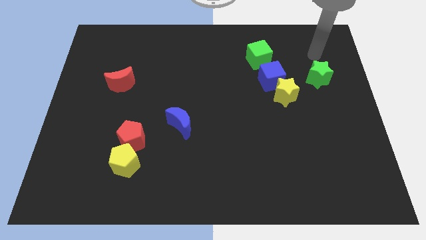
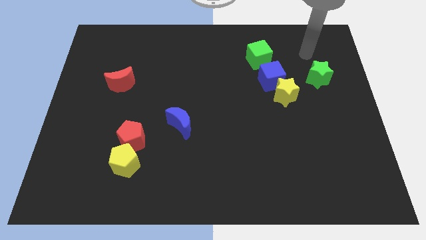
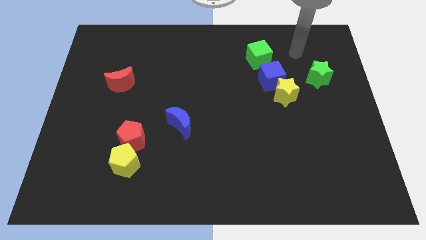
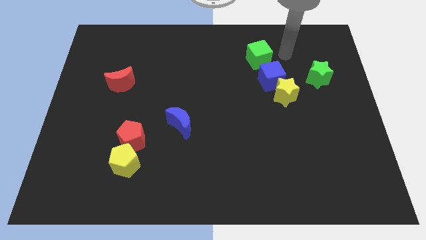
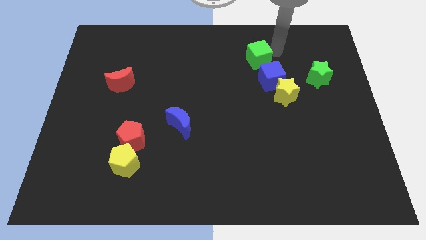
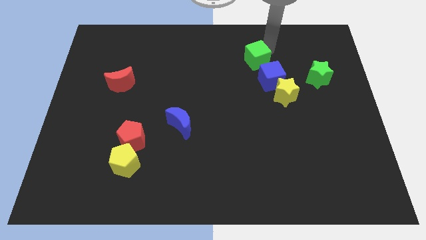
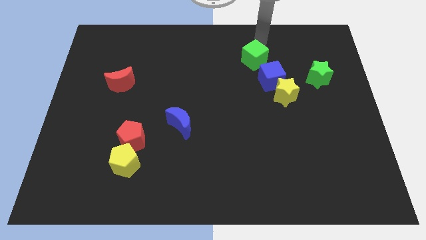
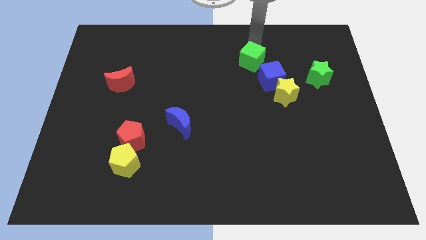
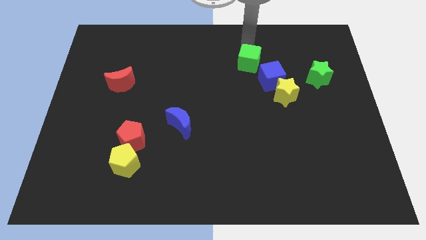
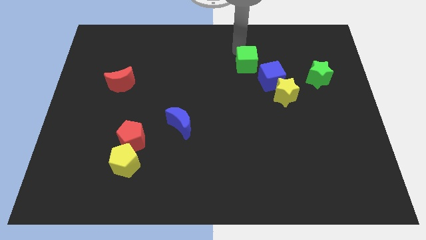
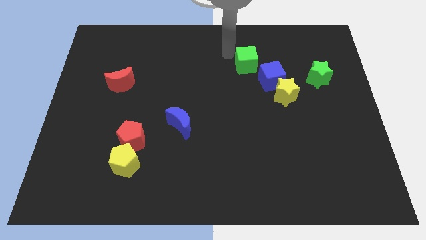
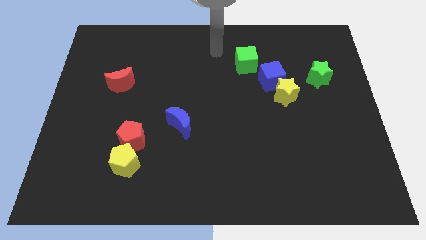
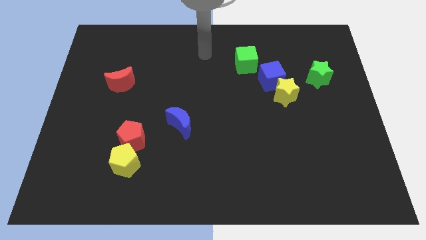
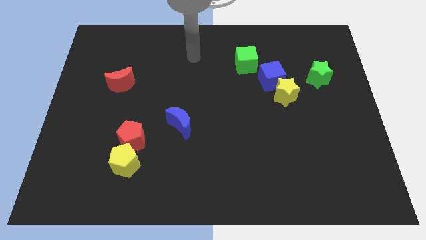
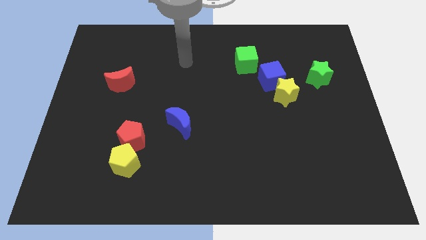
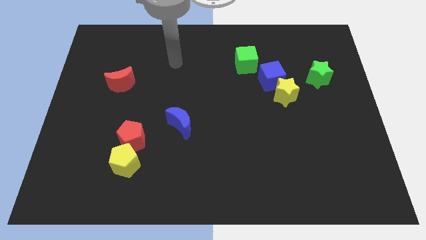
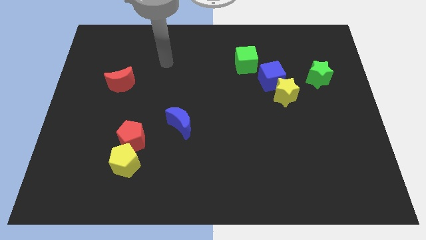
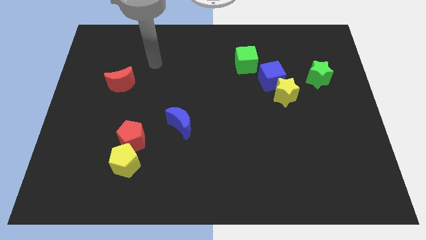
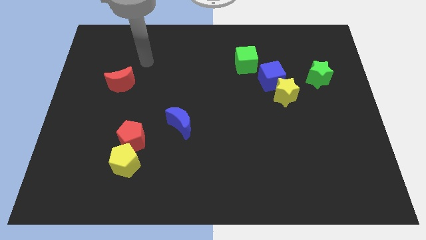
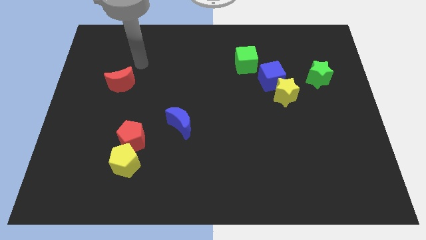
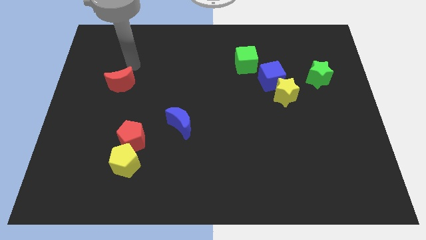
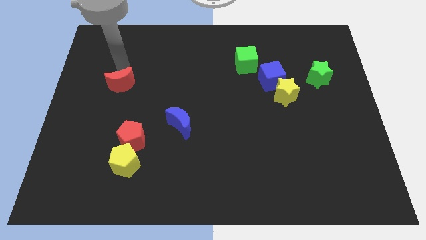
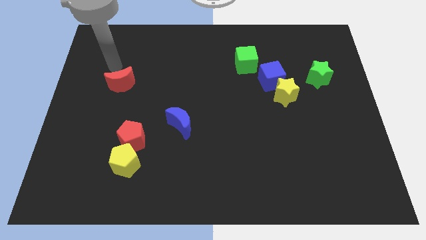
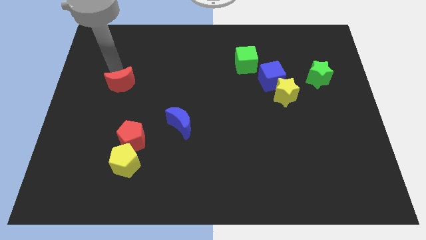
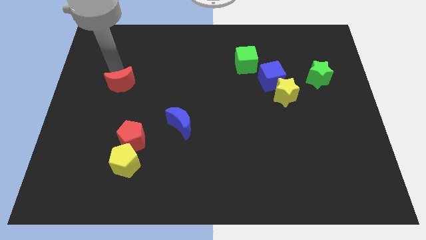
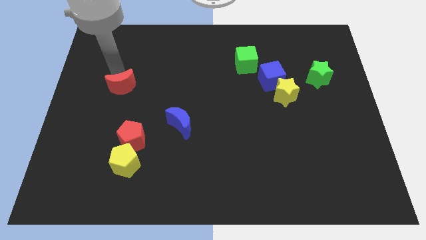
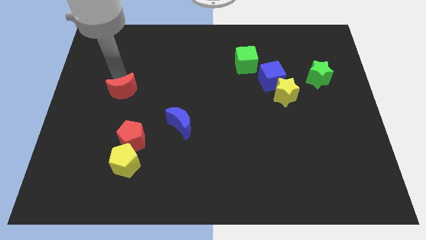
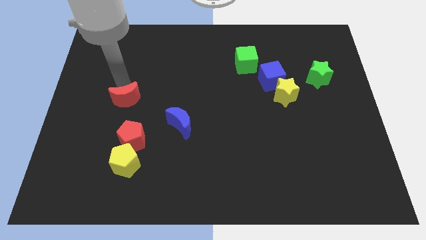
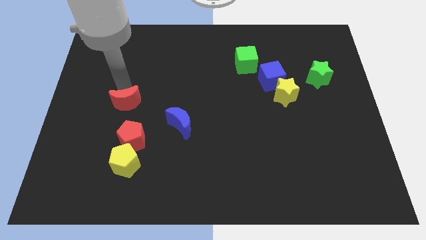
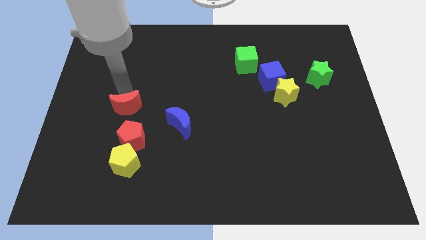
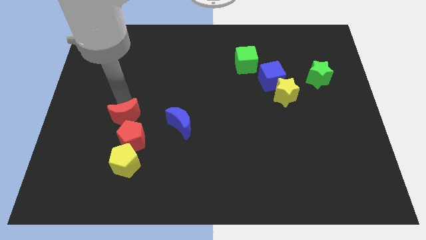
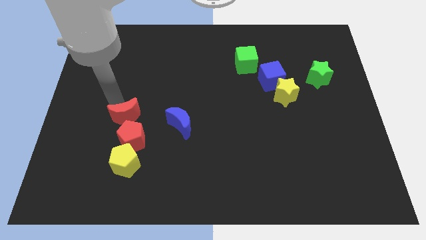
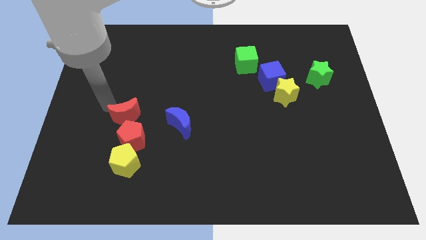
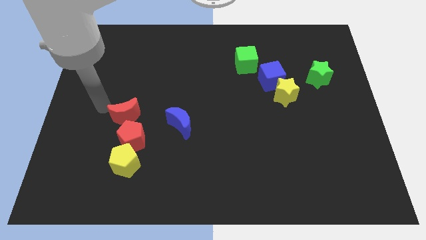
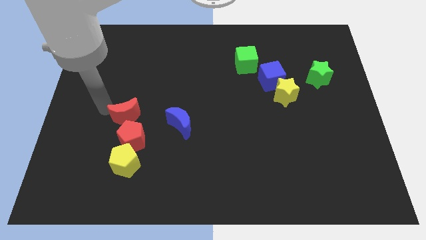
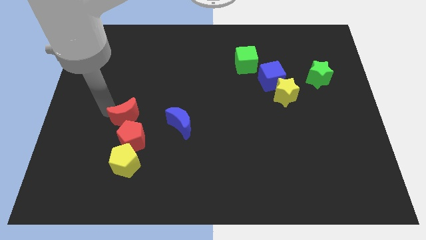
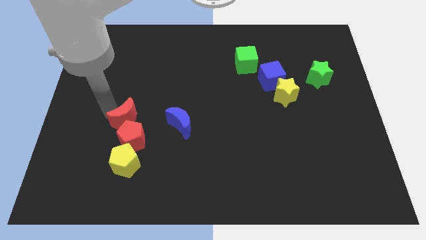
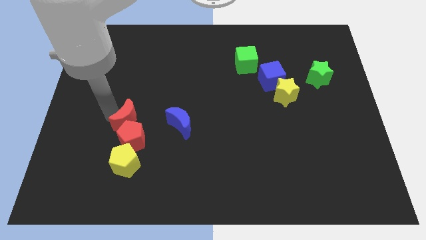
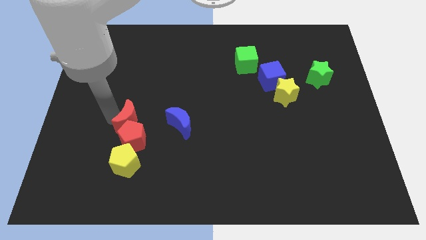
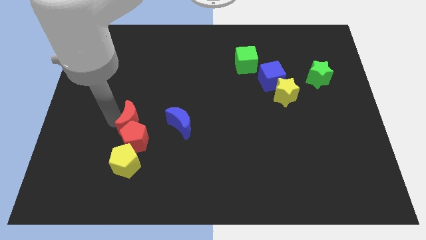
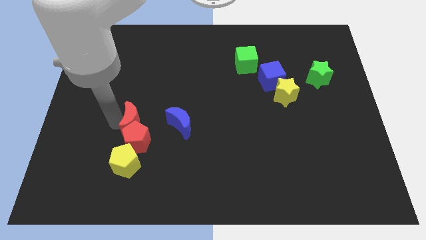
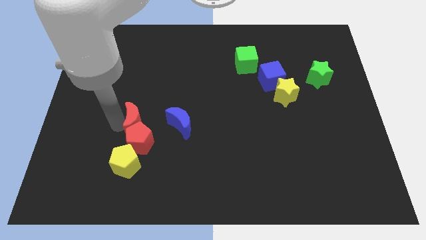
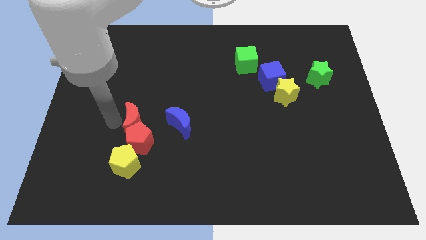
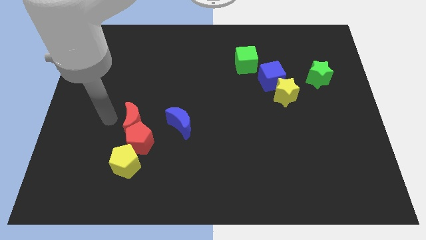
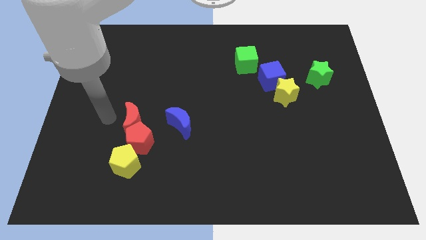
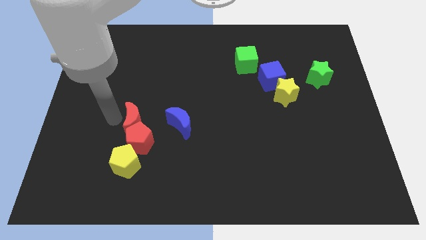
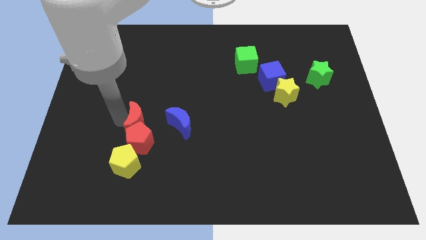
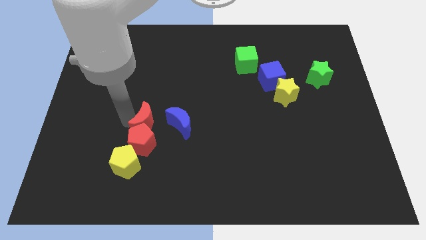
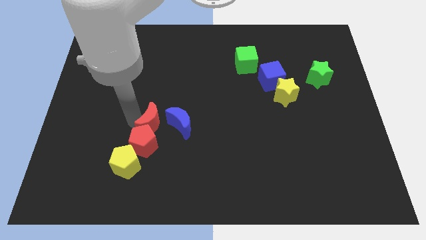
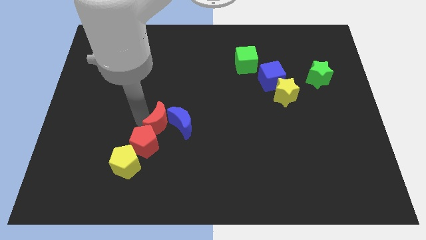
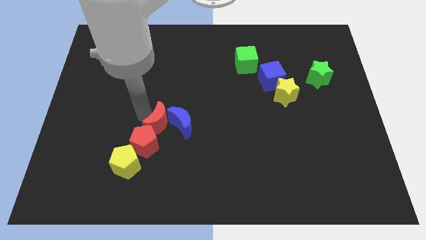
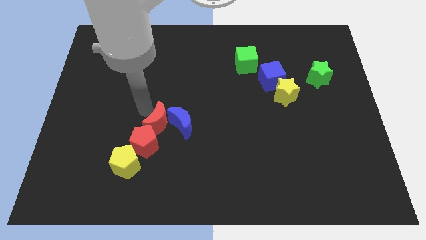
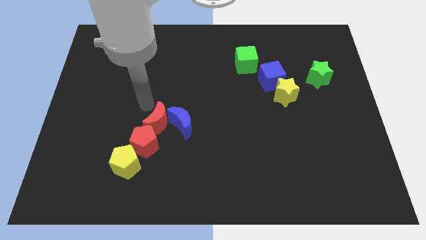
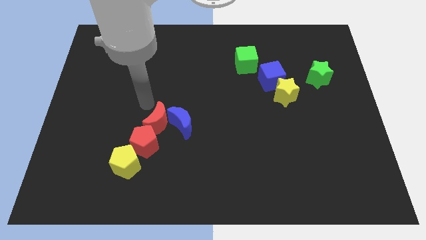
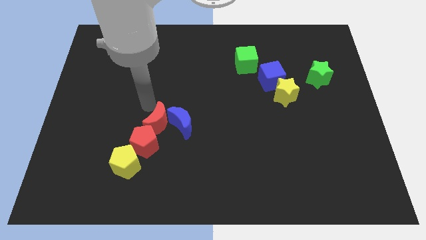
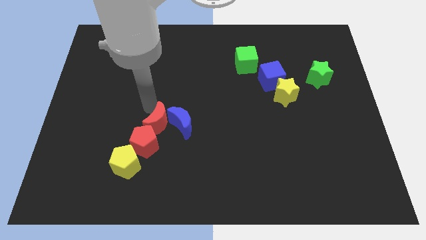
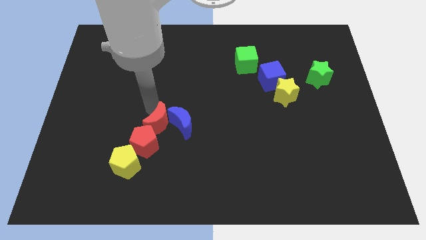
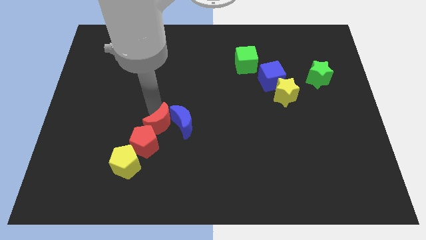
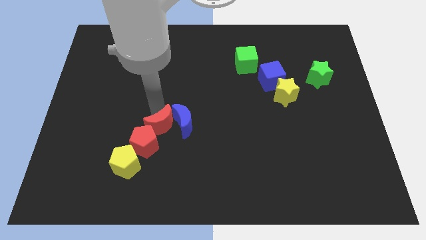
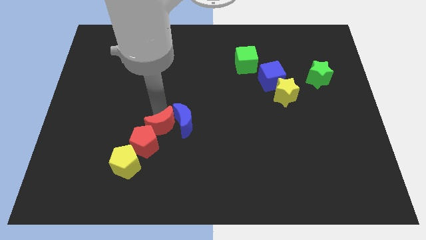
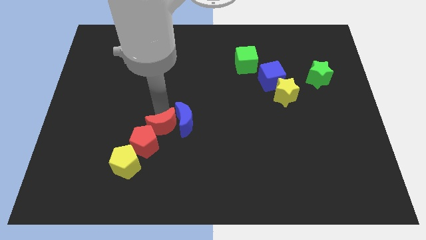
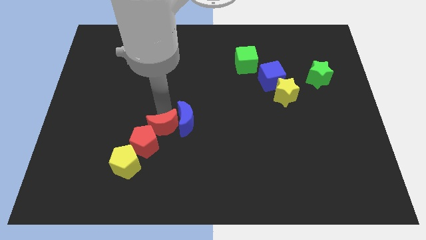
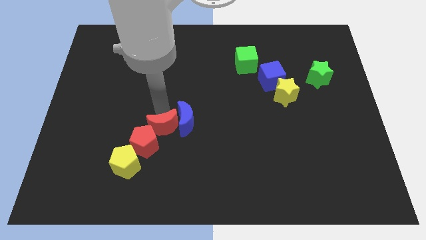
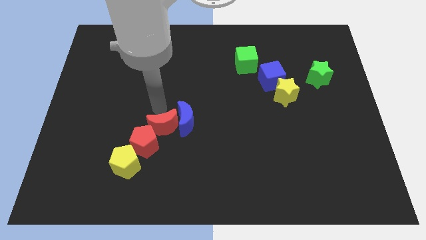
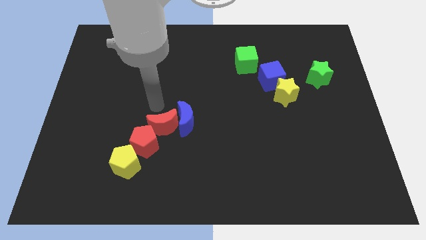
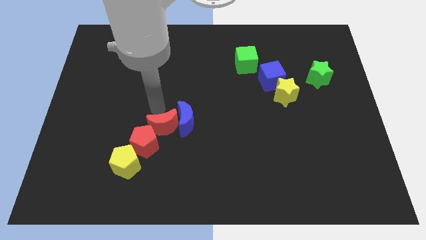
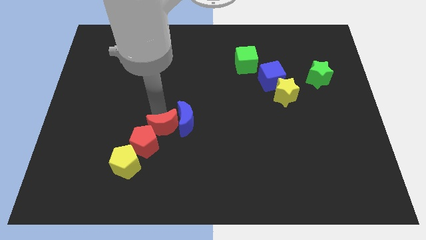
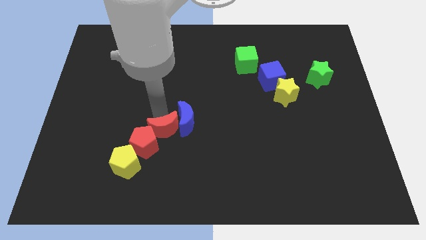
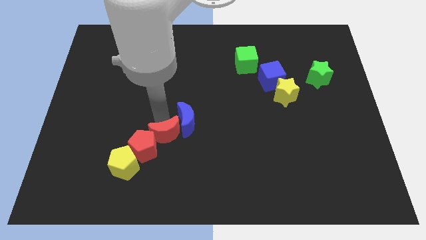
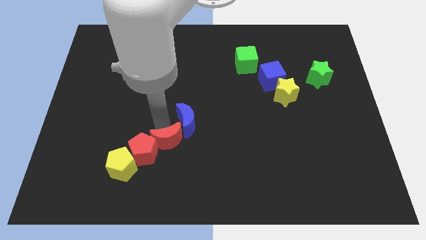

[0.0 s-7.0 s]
move the red moon down and to the right

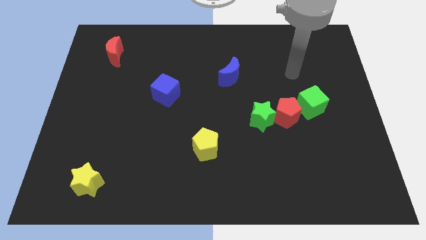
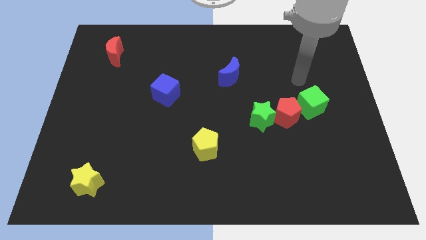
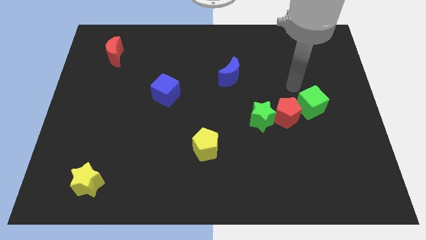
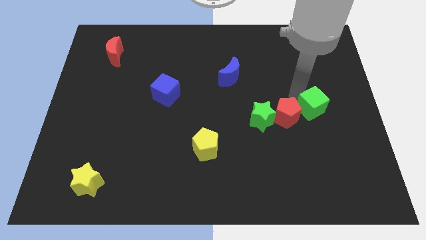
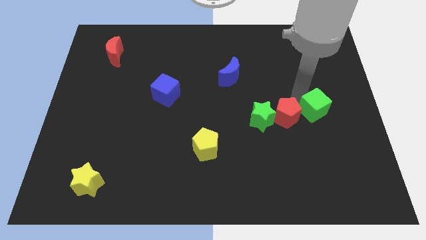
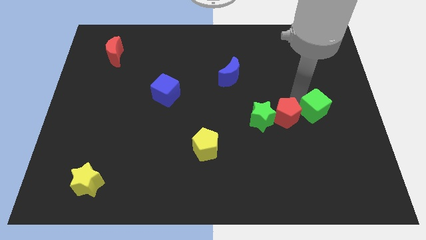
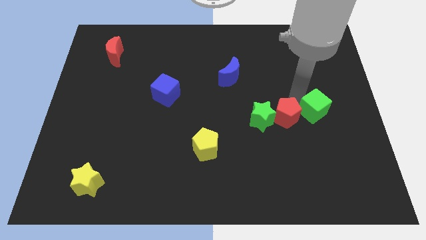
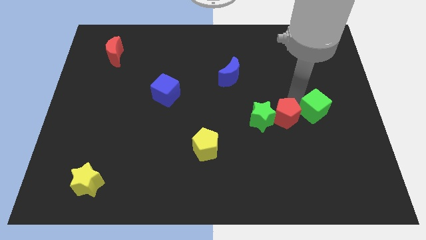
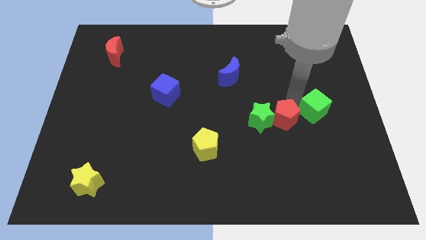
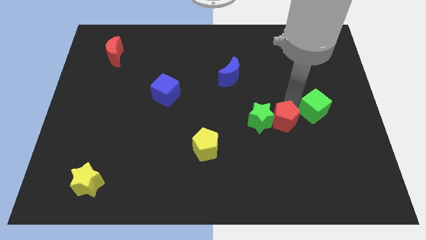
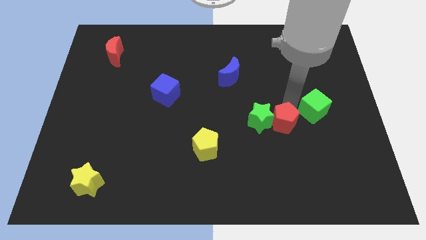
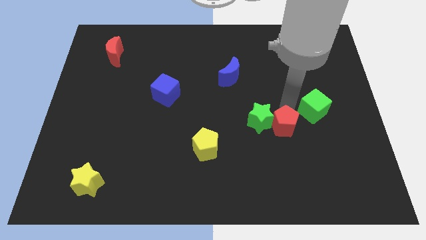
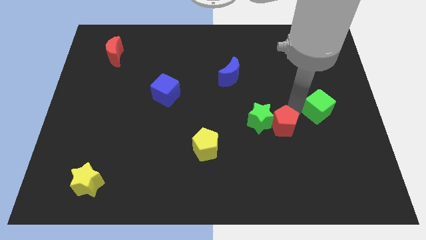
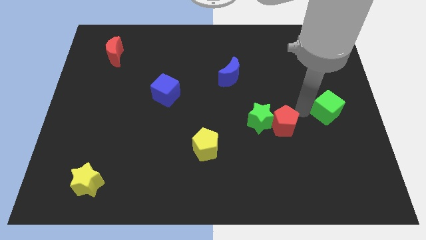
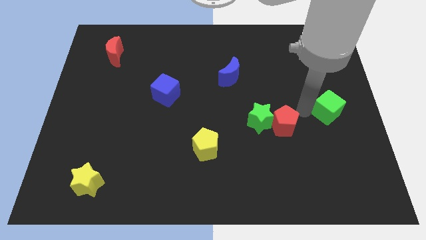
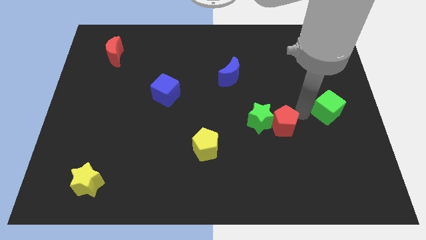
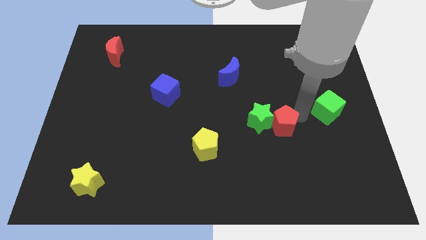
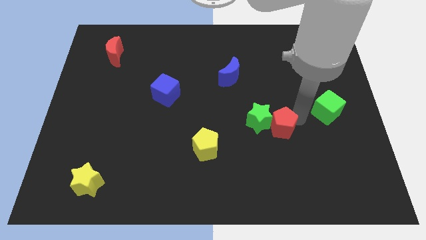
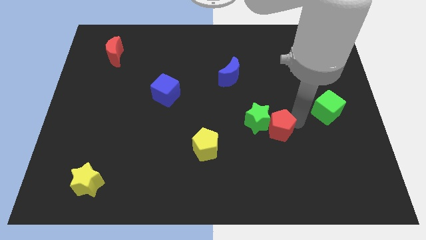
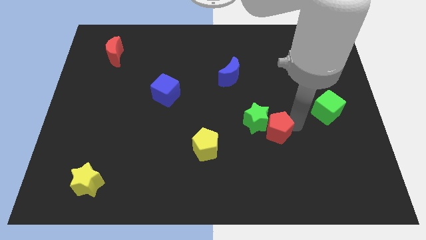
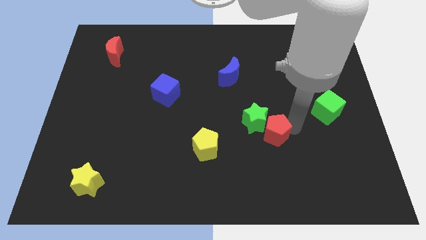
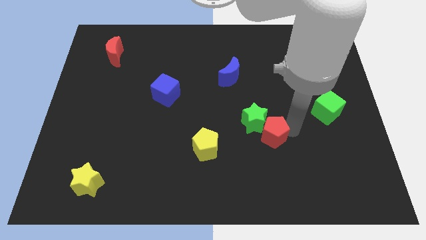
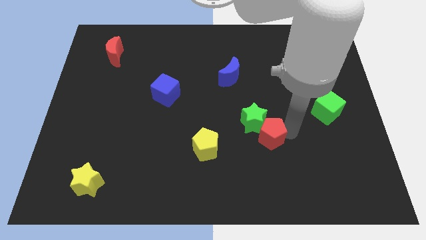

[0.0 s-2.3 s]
slide the red pentagon diagonally downwards and left a little bit
